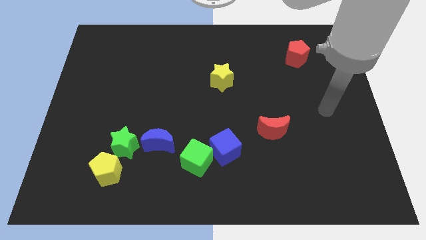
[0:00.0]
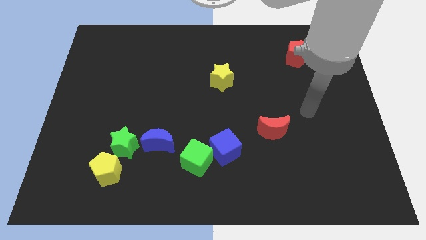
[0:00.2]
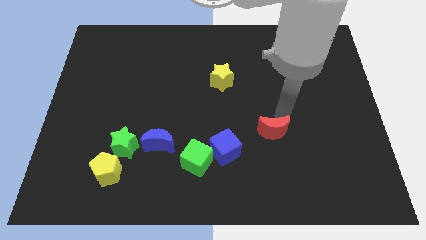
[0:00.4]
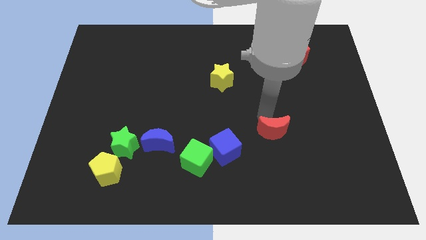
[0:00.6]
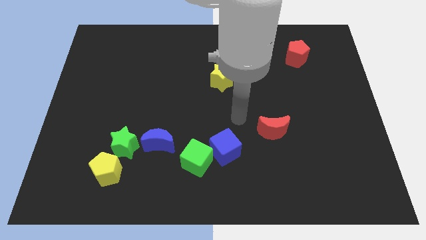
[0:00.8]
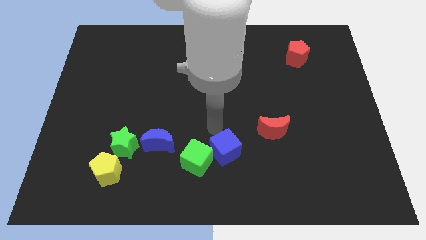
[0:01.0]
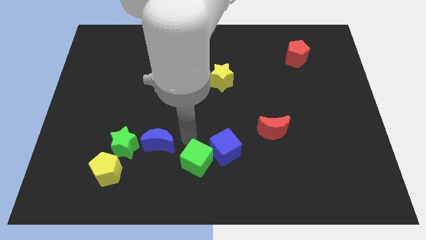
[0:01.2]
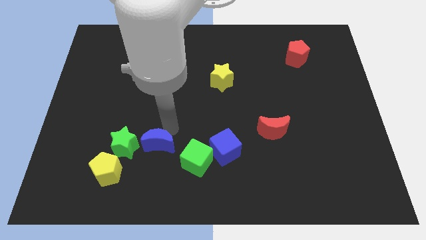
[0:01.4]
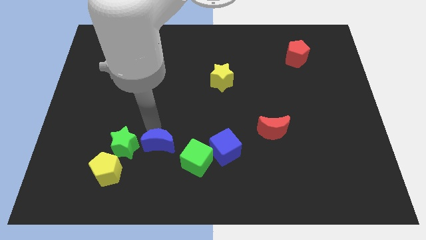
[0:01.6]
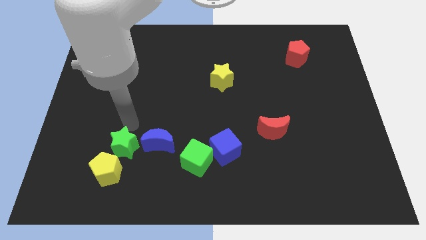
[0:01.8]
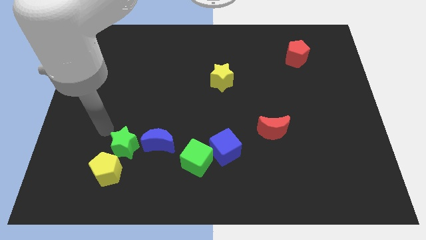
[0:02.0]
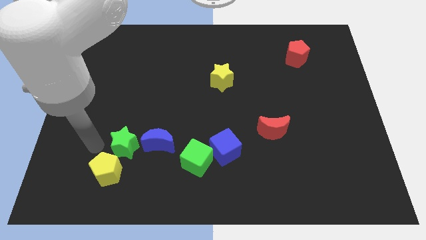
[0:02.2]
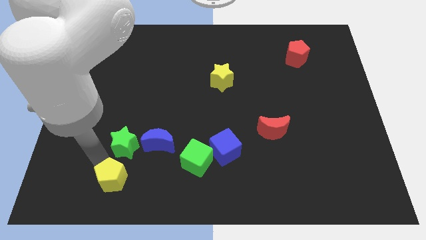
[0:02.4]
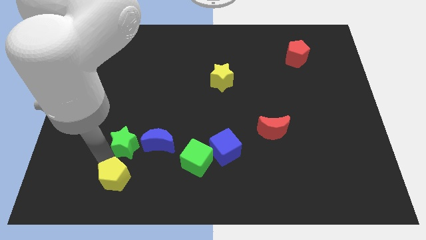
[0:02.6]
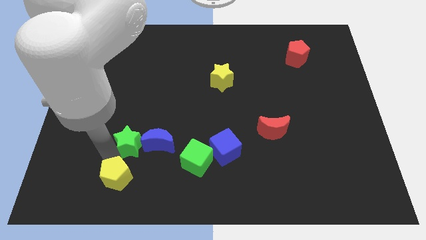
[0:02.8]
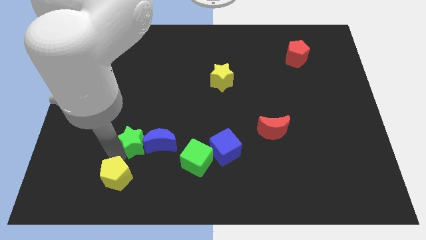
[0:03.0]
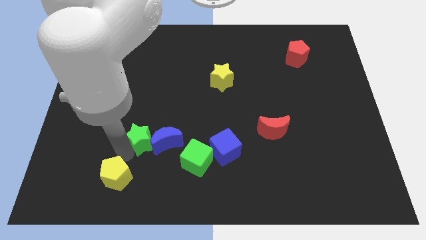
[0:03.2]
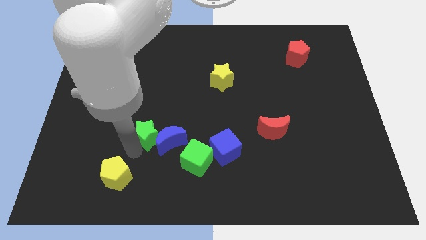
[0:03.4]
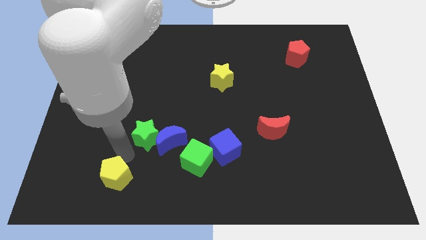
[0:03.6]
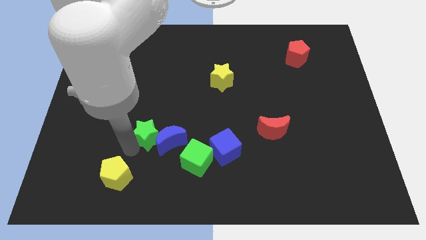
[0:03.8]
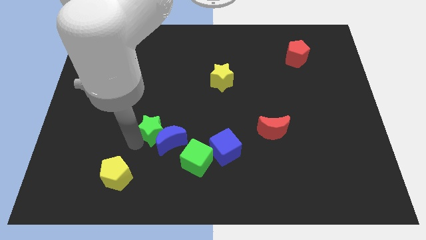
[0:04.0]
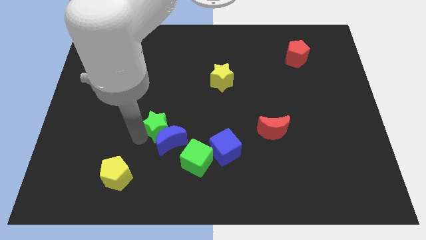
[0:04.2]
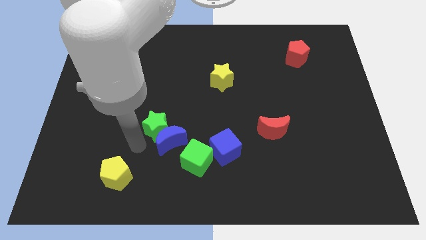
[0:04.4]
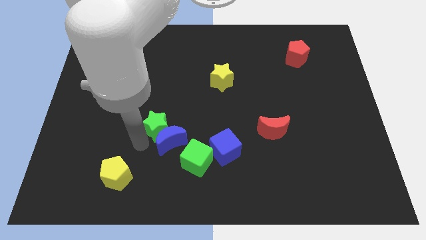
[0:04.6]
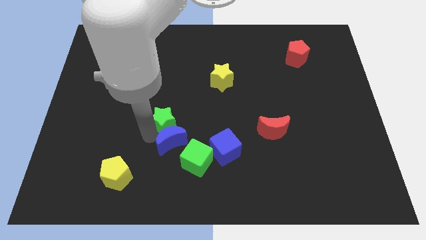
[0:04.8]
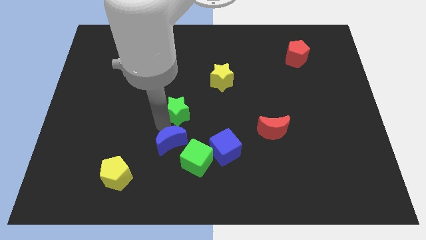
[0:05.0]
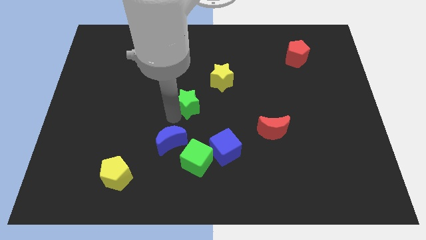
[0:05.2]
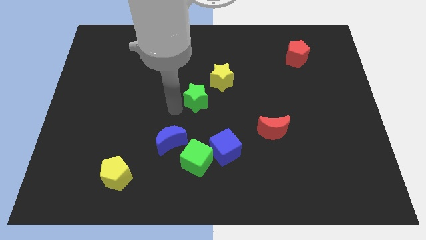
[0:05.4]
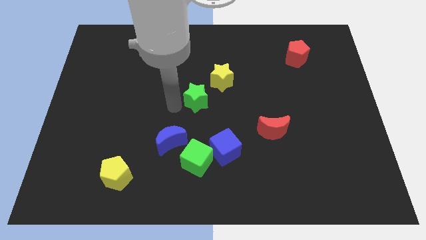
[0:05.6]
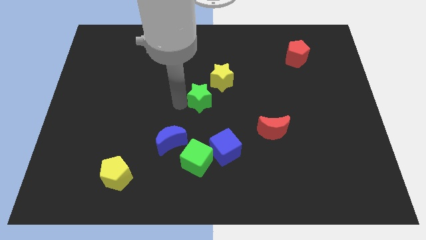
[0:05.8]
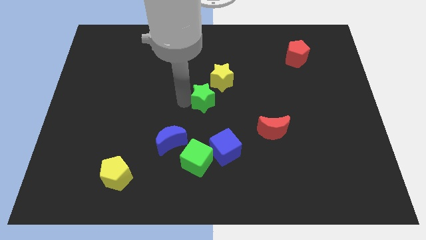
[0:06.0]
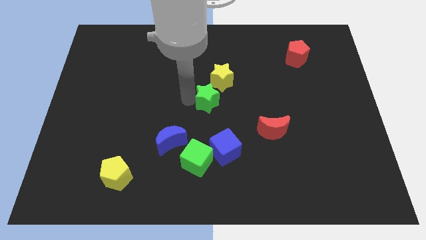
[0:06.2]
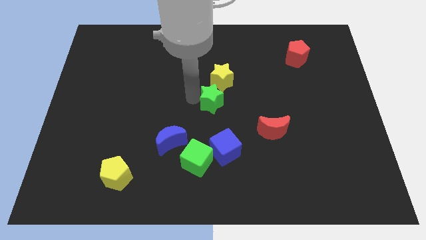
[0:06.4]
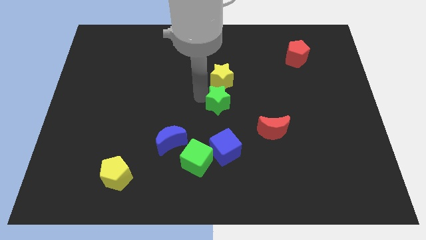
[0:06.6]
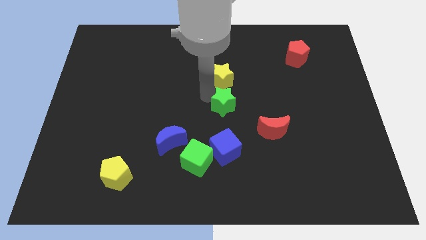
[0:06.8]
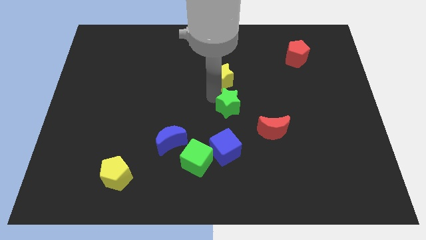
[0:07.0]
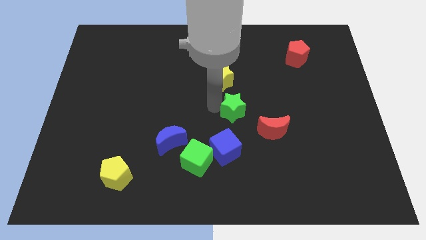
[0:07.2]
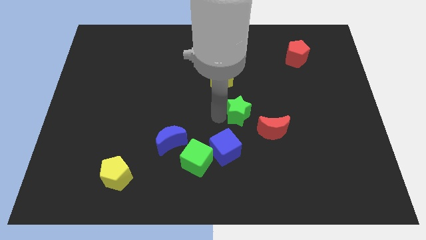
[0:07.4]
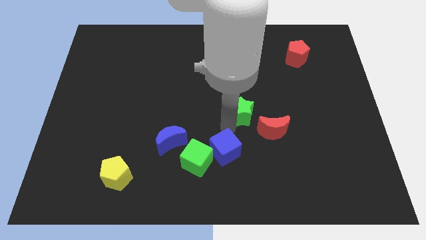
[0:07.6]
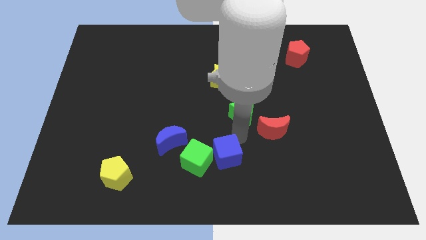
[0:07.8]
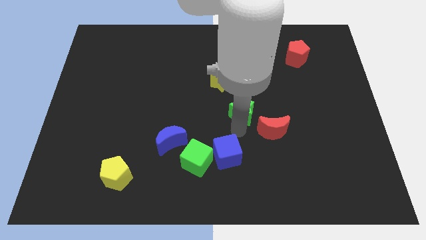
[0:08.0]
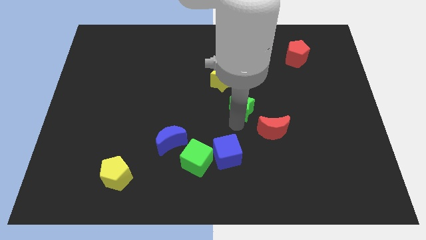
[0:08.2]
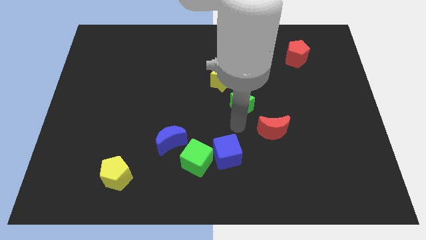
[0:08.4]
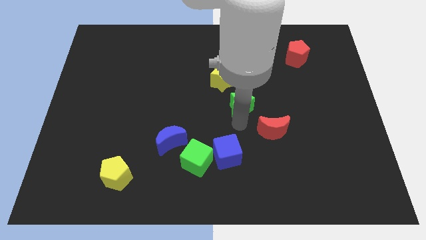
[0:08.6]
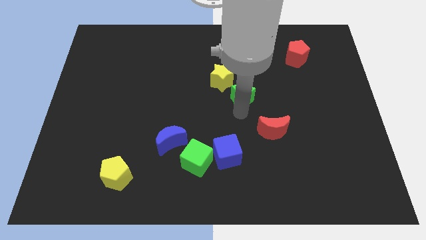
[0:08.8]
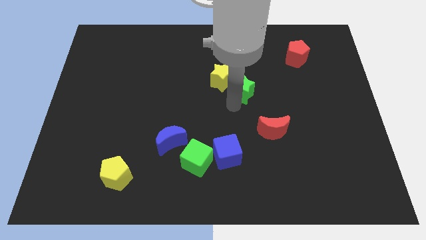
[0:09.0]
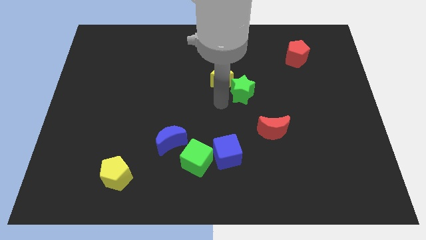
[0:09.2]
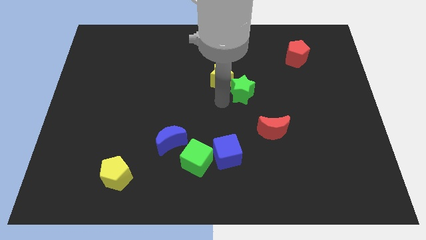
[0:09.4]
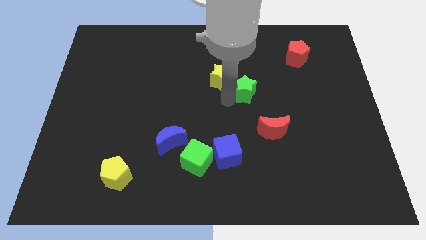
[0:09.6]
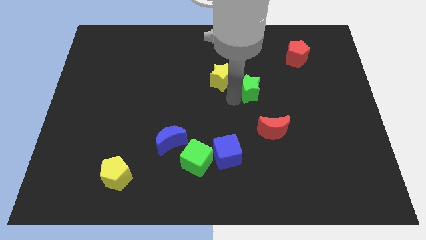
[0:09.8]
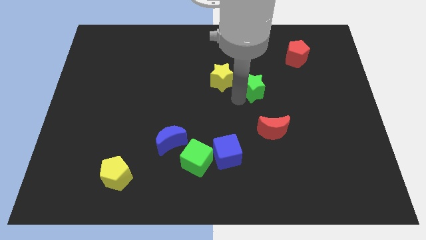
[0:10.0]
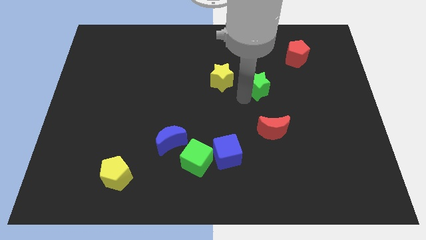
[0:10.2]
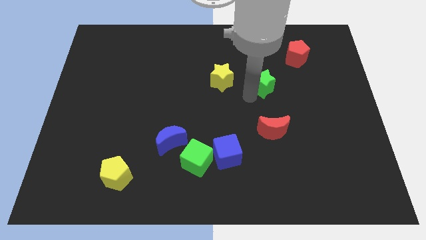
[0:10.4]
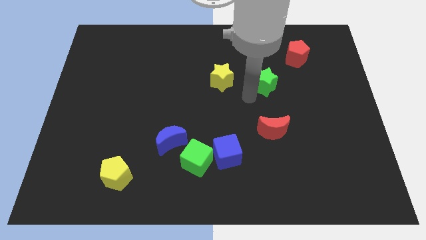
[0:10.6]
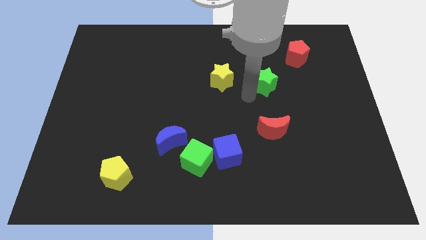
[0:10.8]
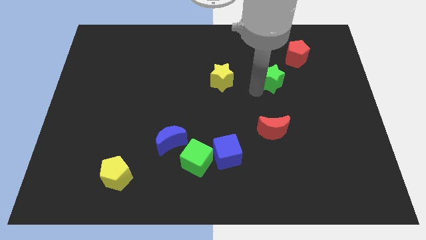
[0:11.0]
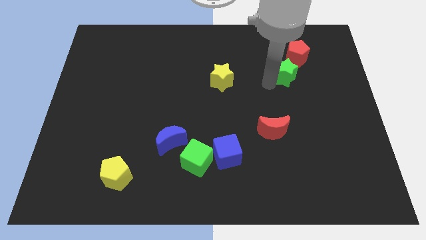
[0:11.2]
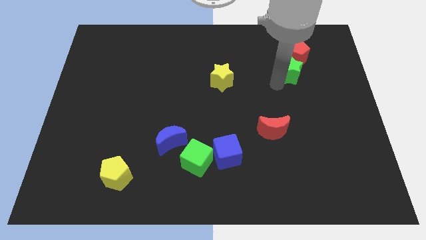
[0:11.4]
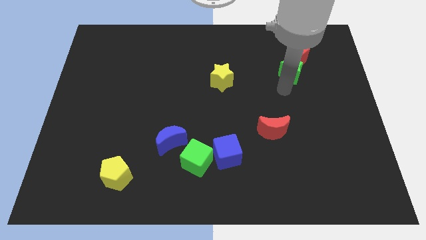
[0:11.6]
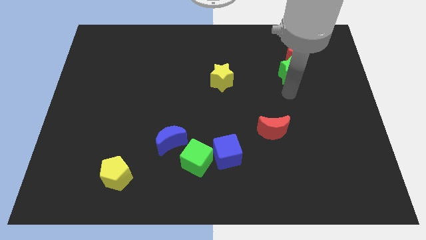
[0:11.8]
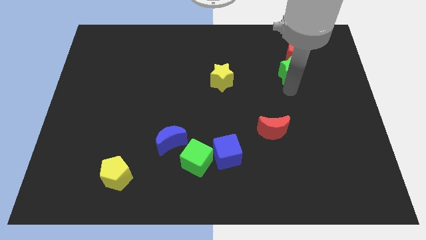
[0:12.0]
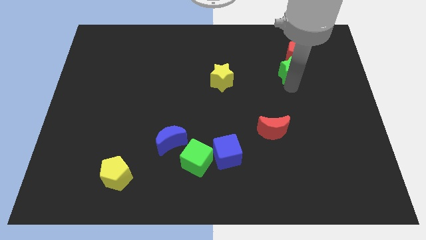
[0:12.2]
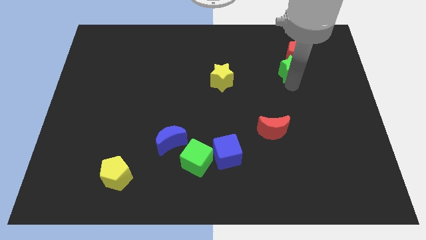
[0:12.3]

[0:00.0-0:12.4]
push the green star next to the red pentagon

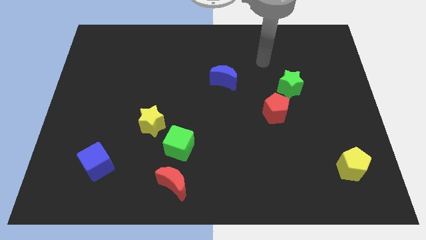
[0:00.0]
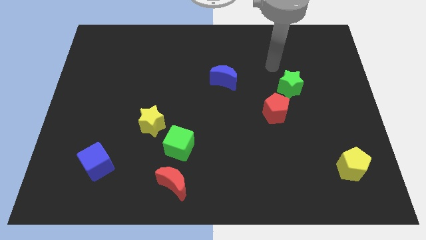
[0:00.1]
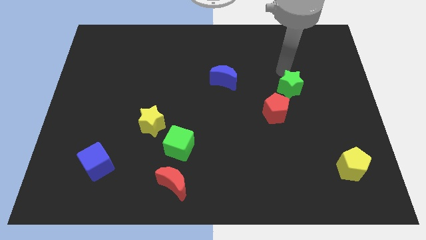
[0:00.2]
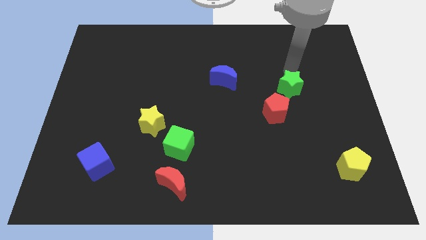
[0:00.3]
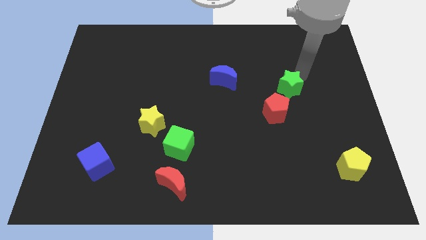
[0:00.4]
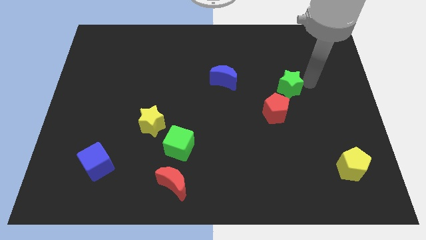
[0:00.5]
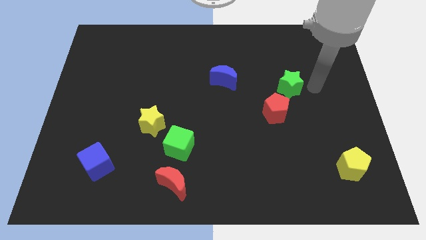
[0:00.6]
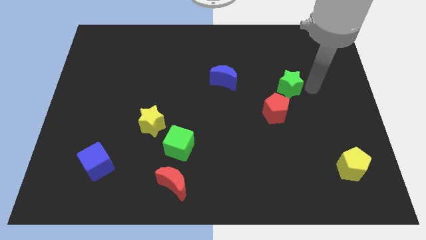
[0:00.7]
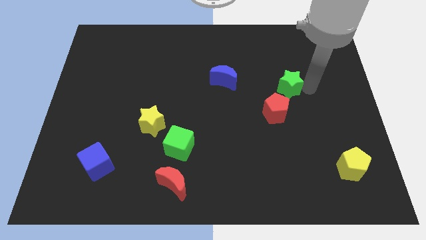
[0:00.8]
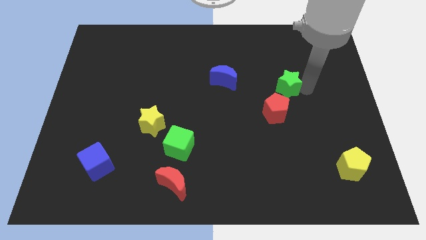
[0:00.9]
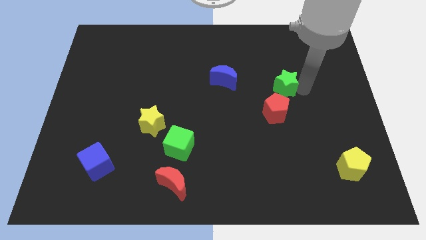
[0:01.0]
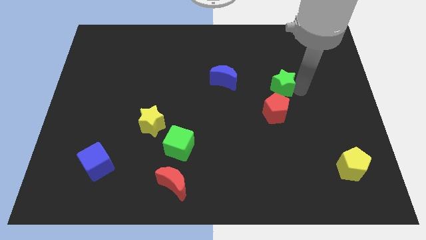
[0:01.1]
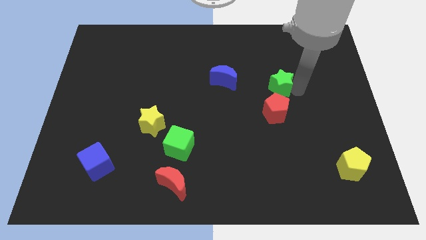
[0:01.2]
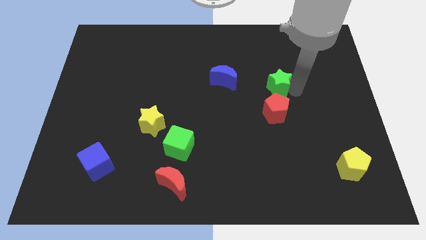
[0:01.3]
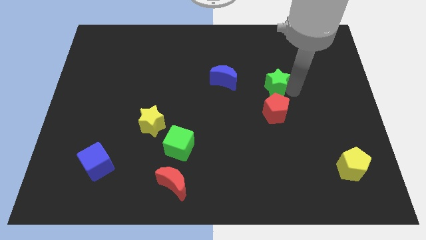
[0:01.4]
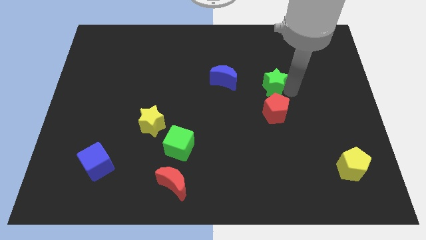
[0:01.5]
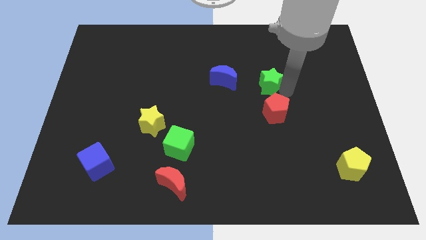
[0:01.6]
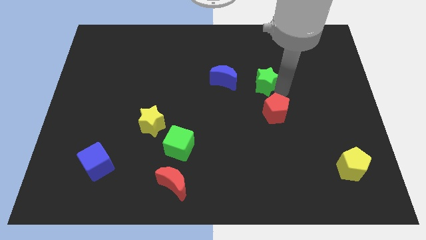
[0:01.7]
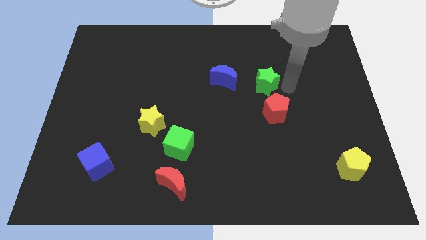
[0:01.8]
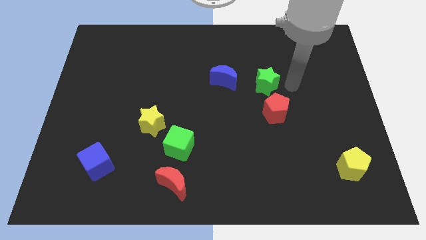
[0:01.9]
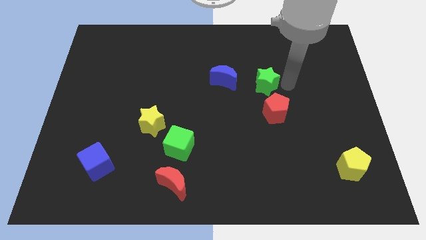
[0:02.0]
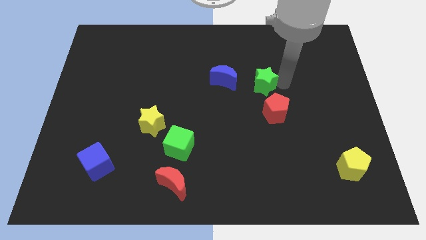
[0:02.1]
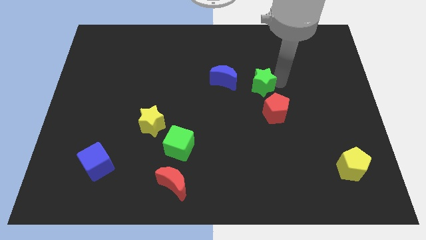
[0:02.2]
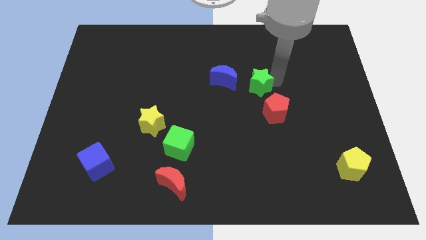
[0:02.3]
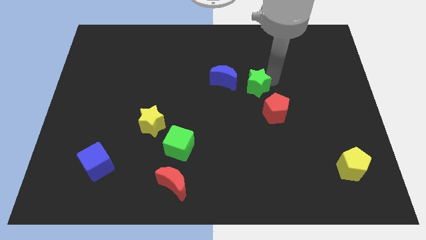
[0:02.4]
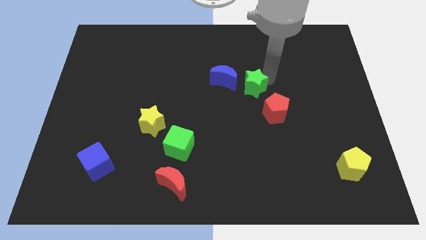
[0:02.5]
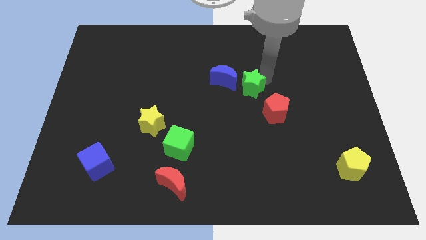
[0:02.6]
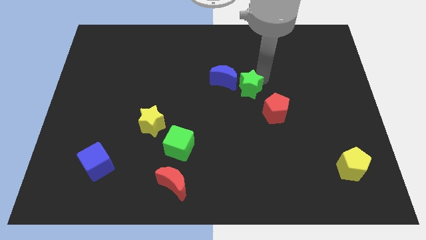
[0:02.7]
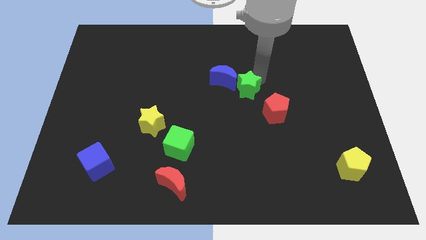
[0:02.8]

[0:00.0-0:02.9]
slide the green star close to the blue moon
